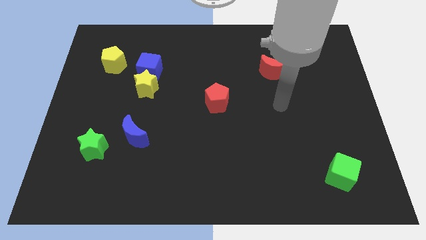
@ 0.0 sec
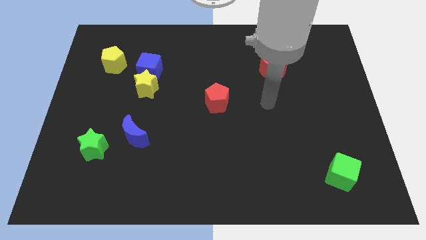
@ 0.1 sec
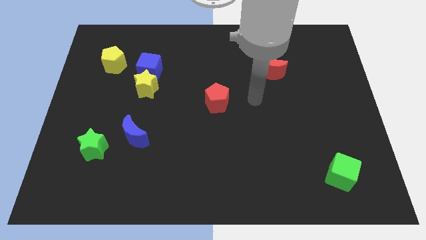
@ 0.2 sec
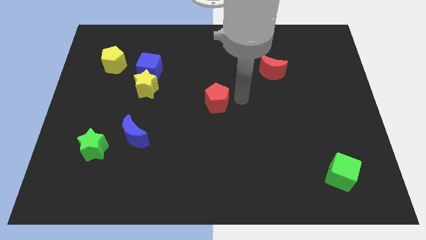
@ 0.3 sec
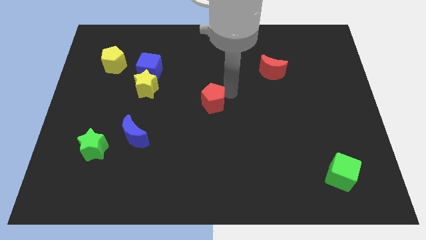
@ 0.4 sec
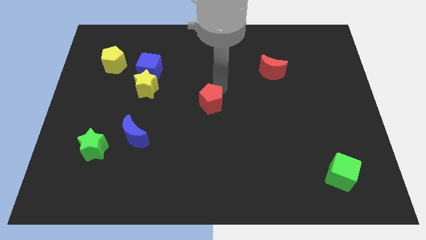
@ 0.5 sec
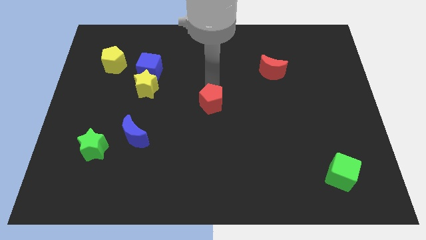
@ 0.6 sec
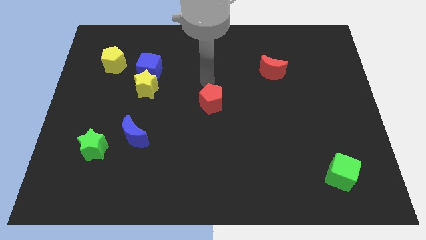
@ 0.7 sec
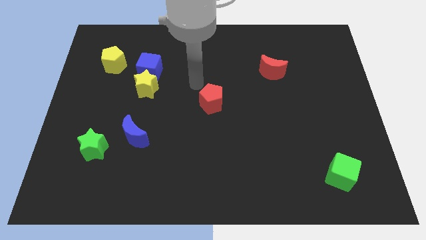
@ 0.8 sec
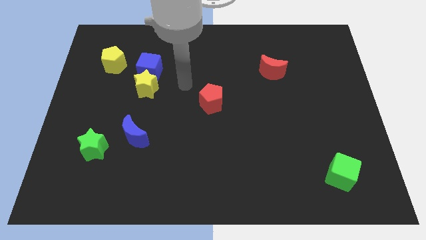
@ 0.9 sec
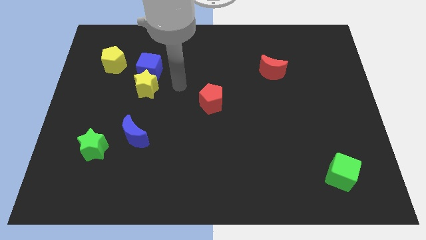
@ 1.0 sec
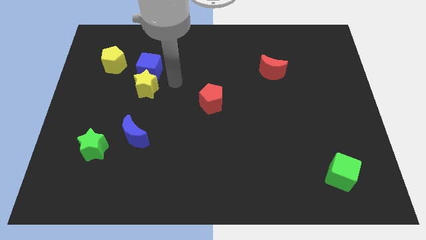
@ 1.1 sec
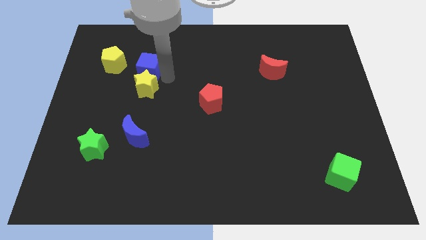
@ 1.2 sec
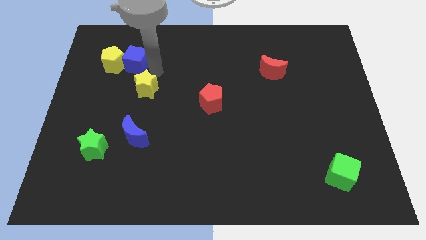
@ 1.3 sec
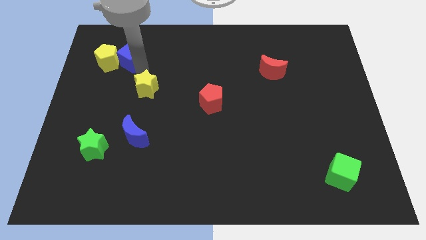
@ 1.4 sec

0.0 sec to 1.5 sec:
pull the yellow star apart from the blue cube

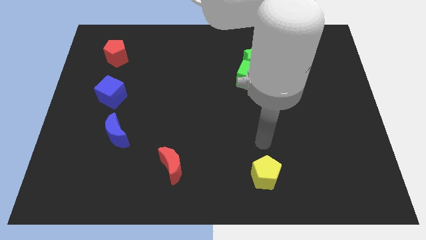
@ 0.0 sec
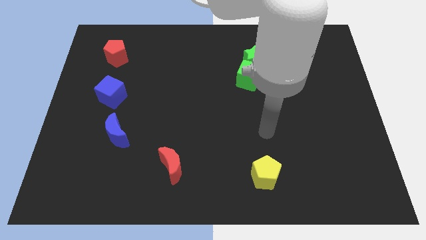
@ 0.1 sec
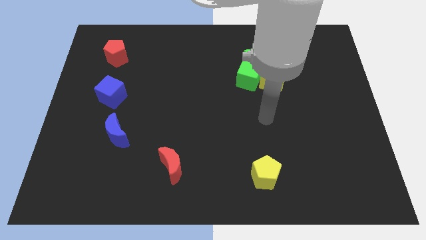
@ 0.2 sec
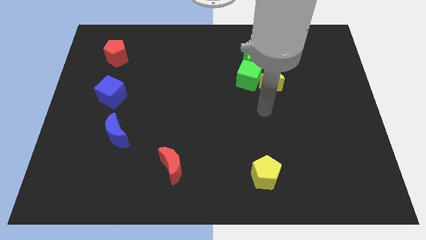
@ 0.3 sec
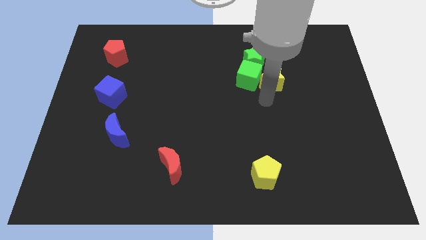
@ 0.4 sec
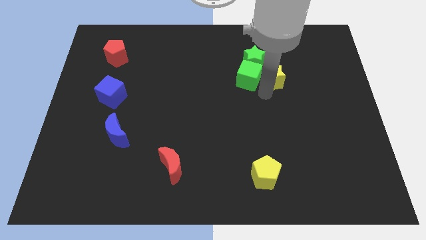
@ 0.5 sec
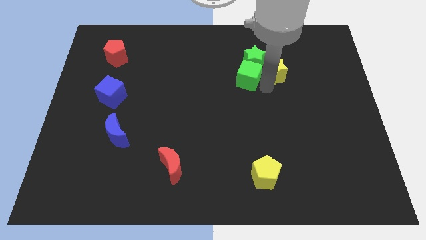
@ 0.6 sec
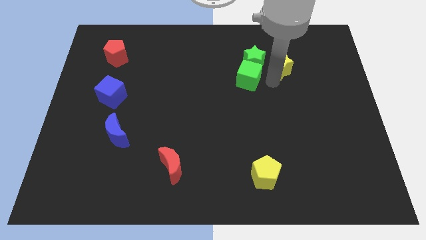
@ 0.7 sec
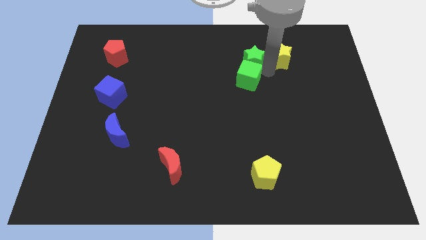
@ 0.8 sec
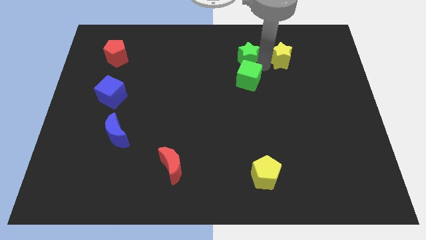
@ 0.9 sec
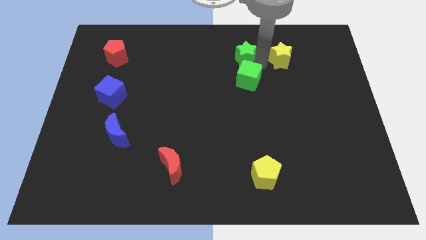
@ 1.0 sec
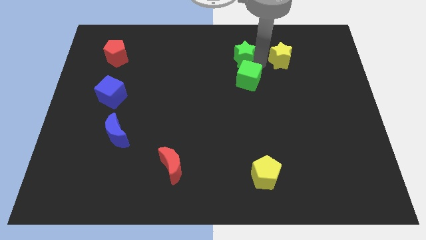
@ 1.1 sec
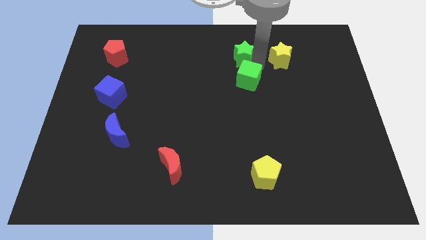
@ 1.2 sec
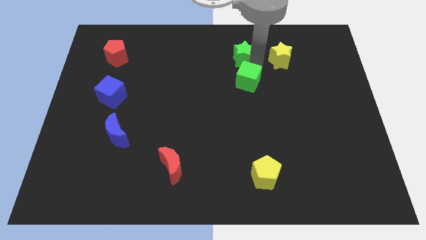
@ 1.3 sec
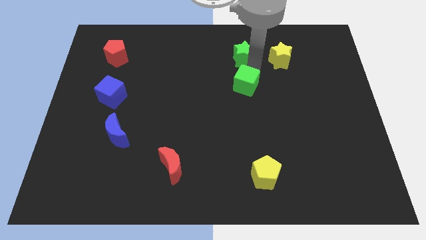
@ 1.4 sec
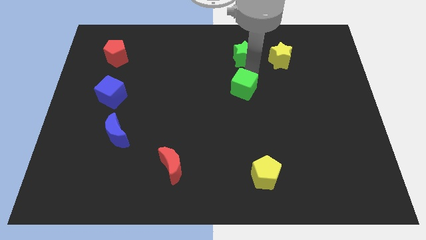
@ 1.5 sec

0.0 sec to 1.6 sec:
pull the green cube apart from the green star and yellow star

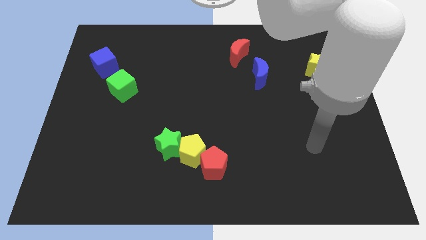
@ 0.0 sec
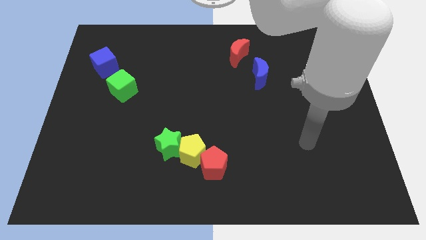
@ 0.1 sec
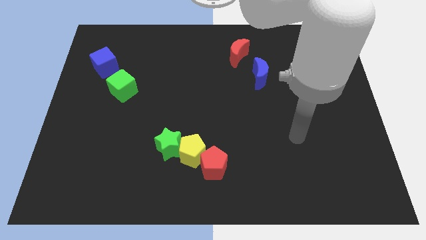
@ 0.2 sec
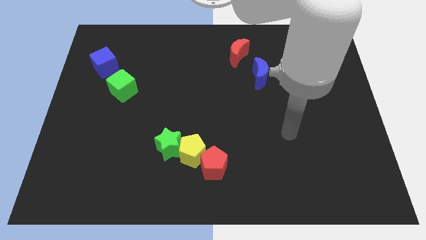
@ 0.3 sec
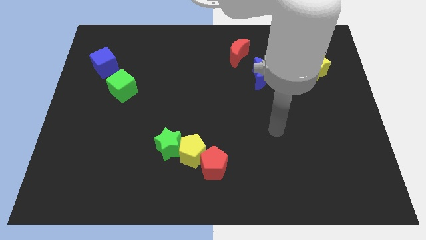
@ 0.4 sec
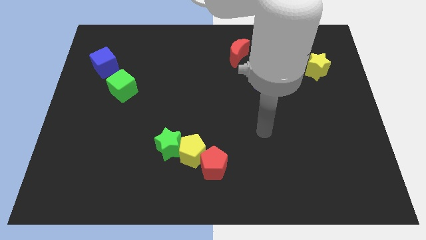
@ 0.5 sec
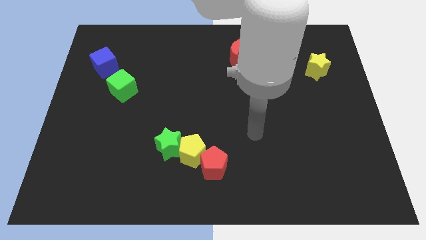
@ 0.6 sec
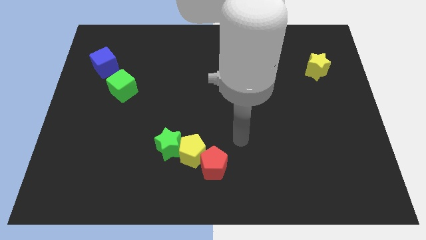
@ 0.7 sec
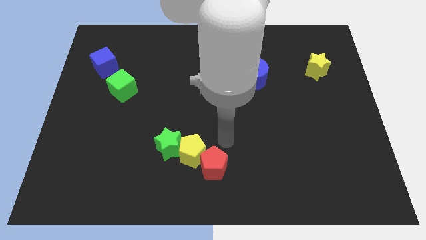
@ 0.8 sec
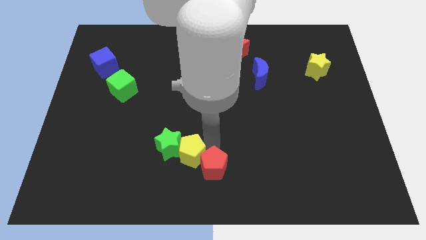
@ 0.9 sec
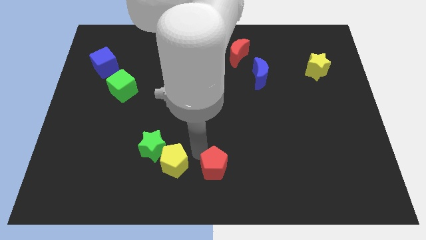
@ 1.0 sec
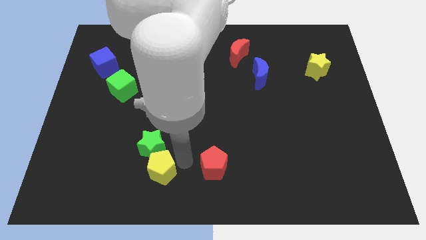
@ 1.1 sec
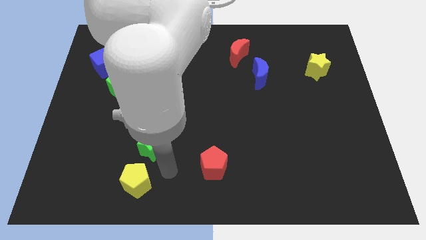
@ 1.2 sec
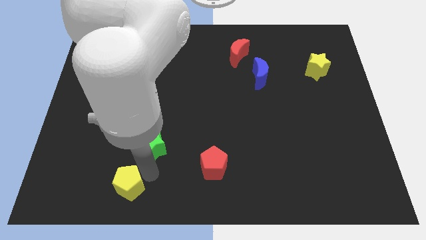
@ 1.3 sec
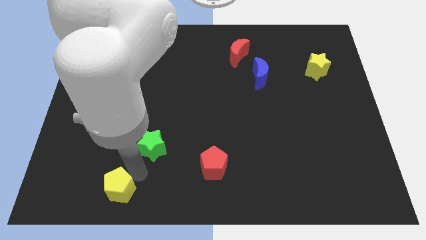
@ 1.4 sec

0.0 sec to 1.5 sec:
move the green star away from the yellow pentagon

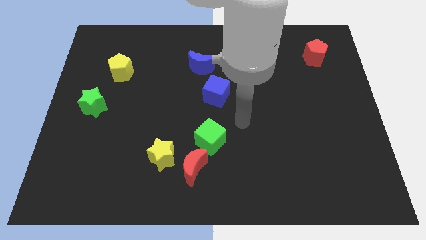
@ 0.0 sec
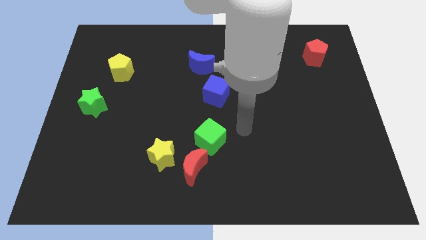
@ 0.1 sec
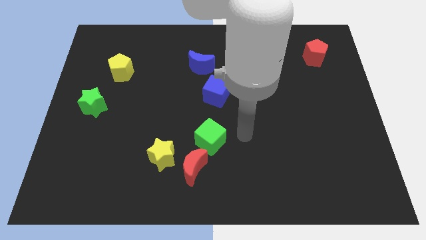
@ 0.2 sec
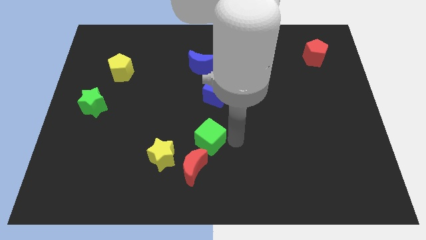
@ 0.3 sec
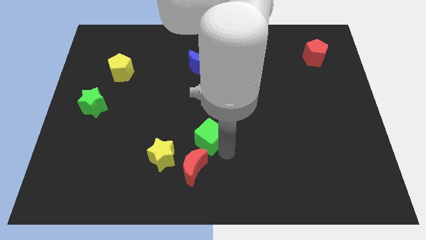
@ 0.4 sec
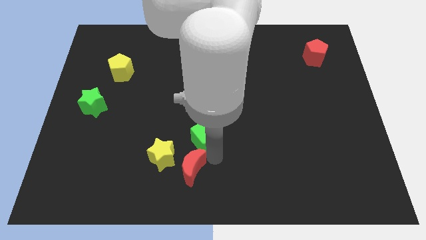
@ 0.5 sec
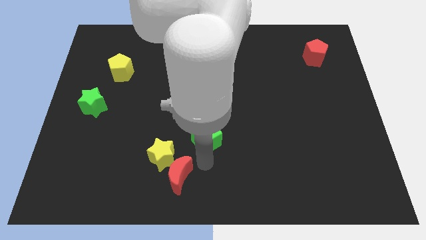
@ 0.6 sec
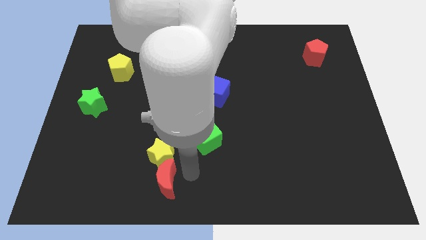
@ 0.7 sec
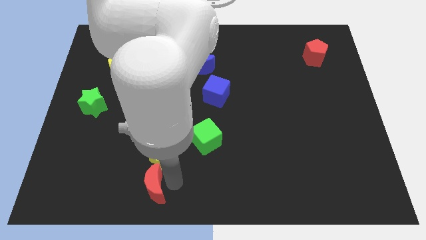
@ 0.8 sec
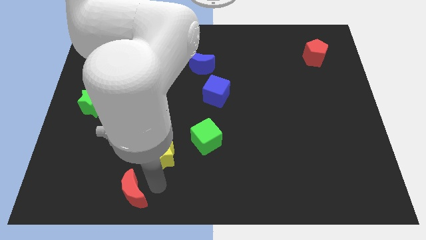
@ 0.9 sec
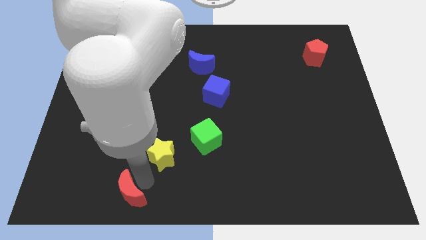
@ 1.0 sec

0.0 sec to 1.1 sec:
move the yellow star away from the red moon

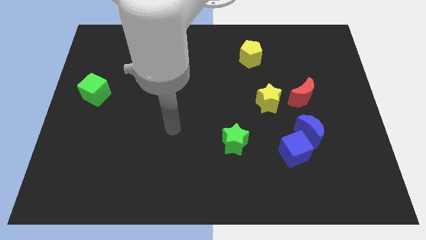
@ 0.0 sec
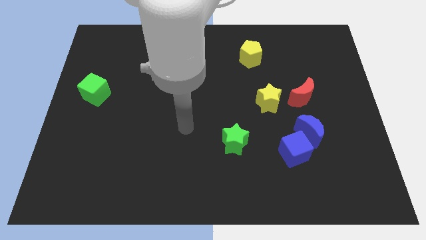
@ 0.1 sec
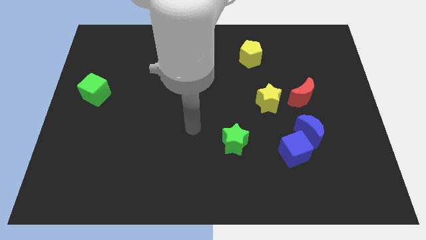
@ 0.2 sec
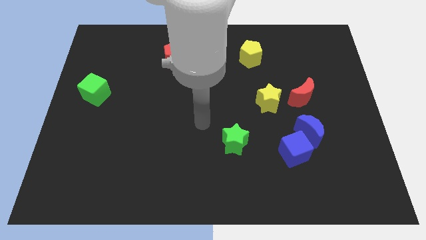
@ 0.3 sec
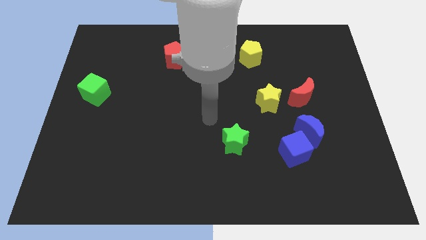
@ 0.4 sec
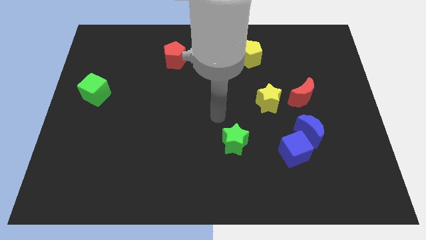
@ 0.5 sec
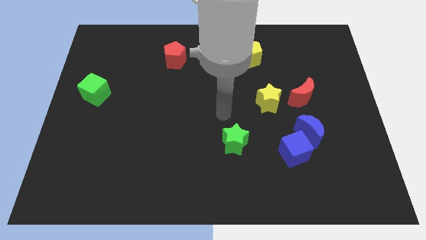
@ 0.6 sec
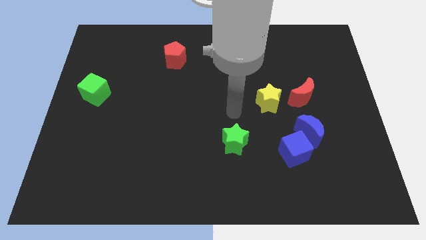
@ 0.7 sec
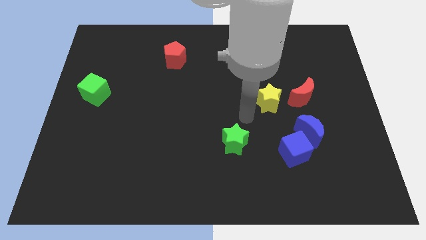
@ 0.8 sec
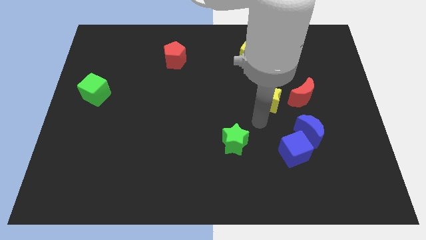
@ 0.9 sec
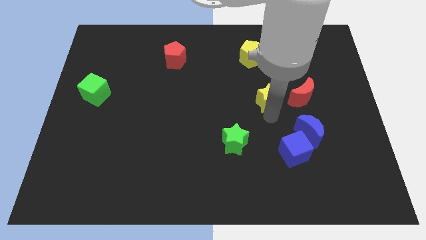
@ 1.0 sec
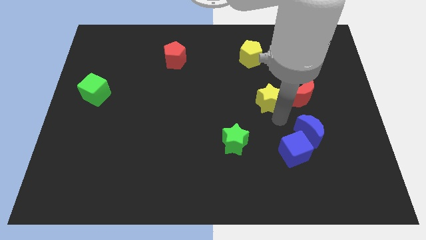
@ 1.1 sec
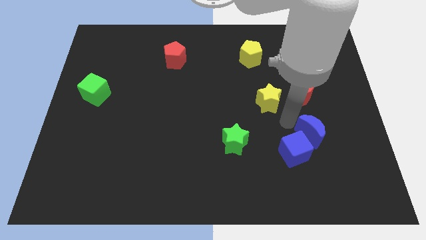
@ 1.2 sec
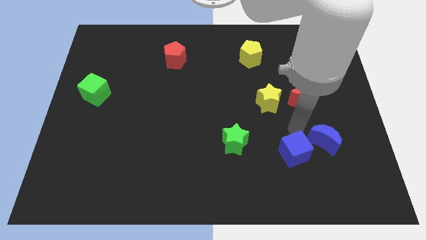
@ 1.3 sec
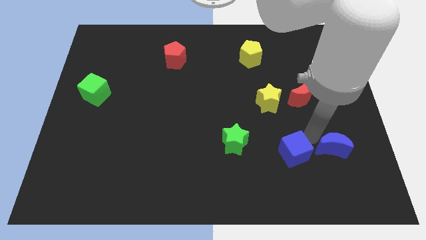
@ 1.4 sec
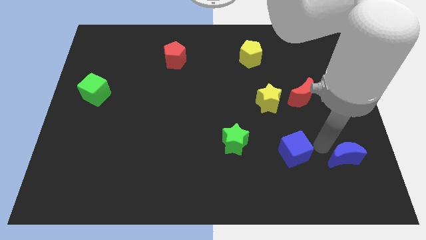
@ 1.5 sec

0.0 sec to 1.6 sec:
separate the blue cube from the blue moon

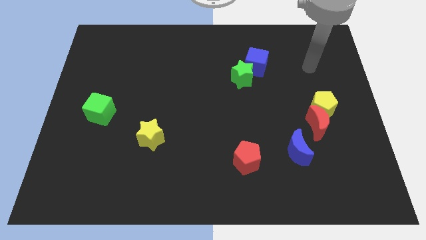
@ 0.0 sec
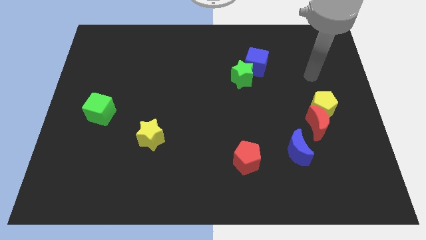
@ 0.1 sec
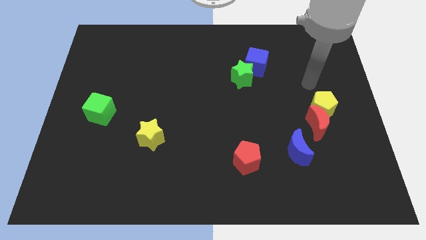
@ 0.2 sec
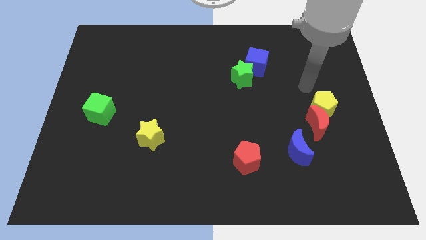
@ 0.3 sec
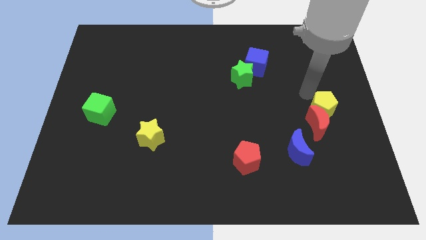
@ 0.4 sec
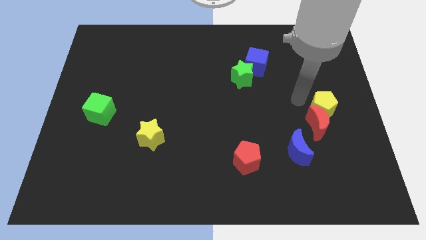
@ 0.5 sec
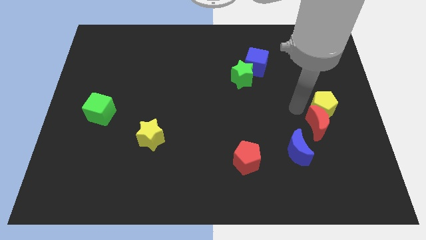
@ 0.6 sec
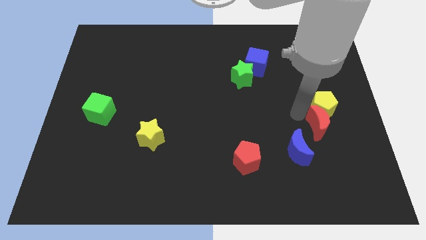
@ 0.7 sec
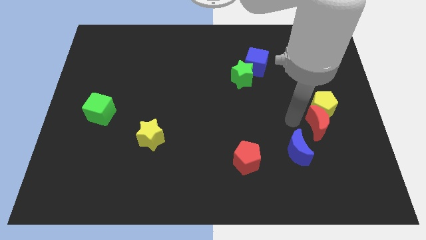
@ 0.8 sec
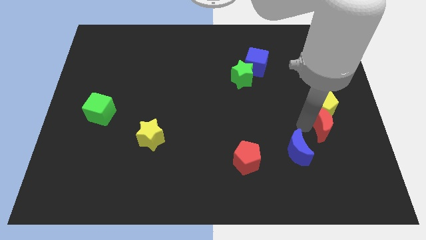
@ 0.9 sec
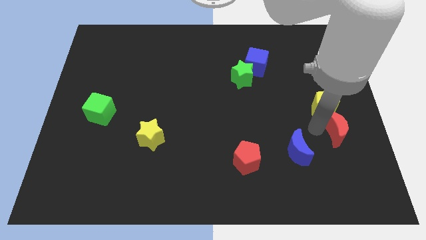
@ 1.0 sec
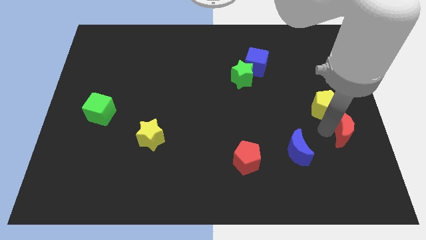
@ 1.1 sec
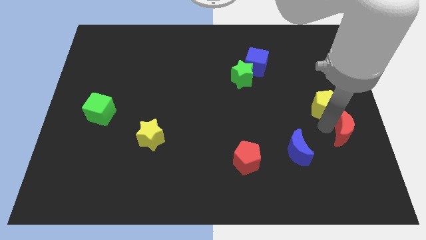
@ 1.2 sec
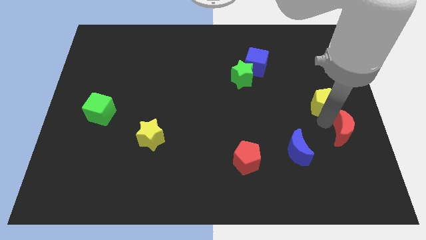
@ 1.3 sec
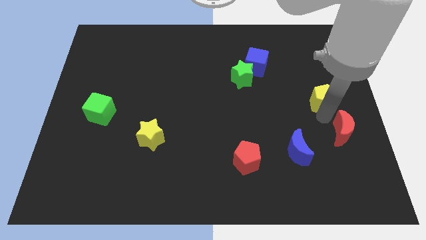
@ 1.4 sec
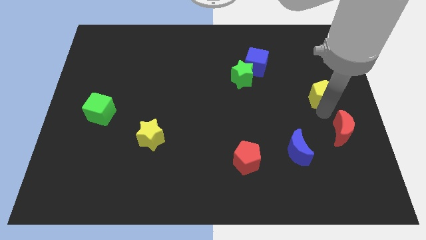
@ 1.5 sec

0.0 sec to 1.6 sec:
move the yellow pentagon away from the red moon

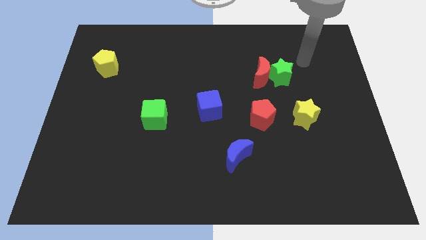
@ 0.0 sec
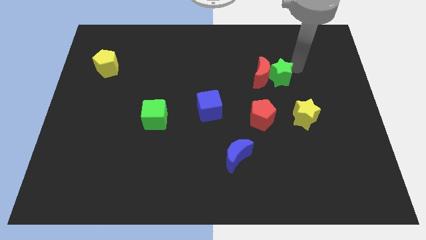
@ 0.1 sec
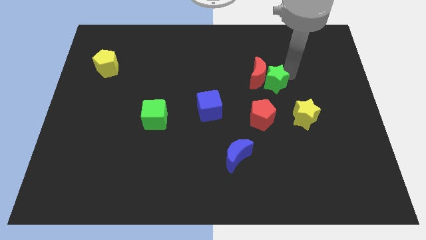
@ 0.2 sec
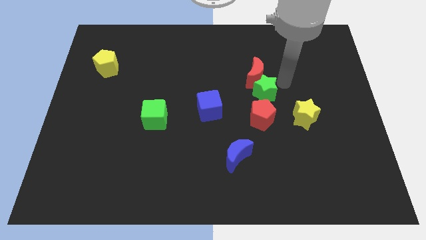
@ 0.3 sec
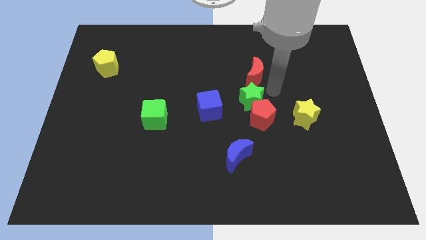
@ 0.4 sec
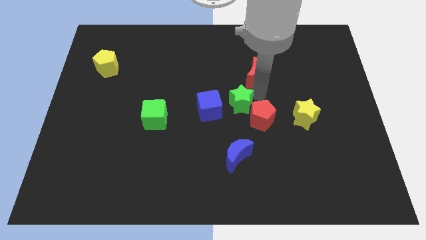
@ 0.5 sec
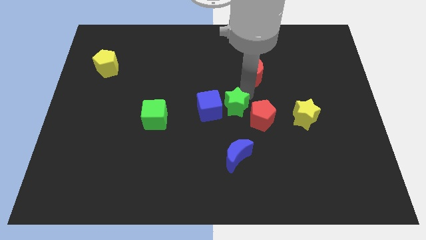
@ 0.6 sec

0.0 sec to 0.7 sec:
separate the red moon from the green star
